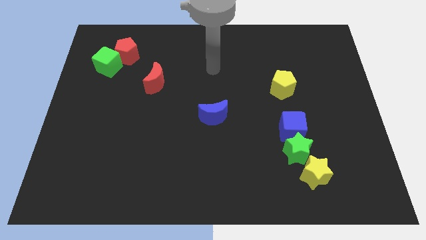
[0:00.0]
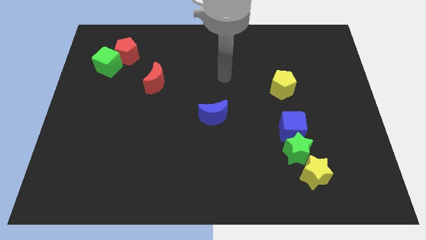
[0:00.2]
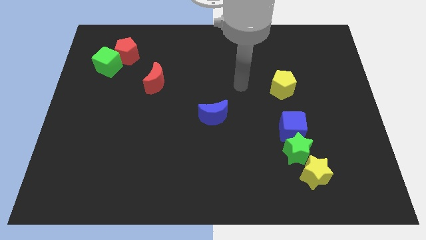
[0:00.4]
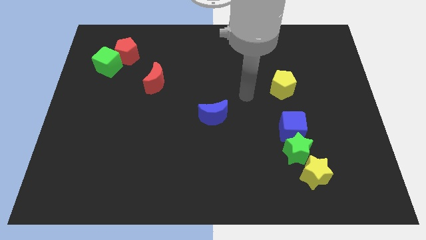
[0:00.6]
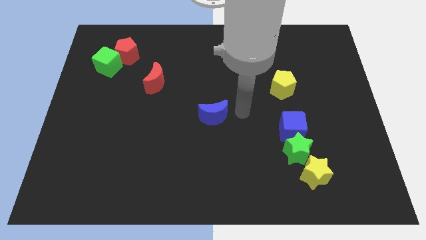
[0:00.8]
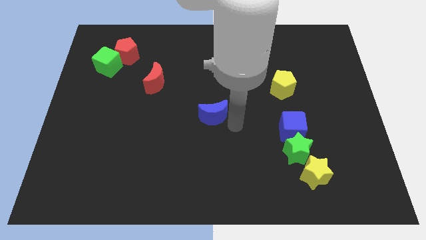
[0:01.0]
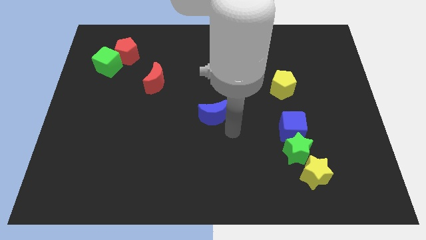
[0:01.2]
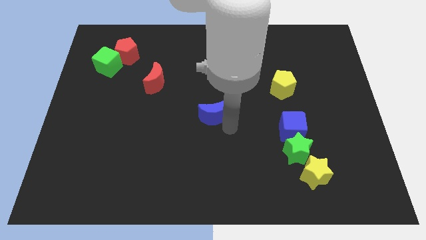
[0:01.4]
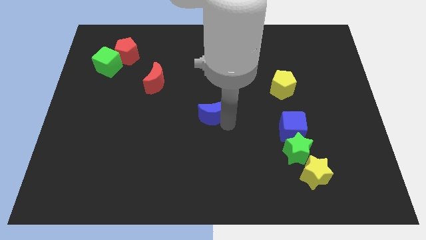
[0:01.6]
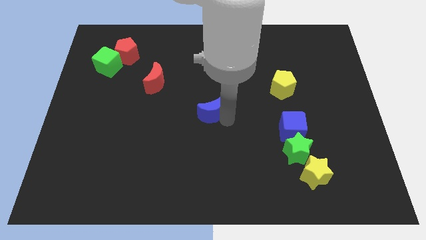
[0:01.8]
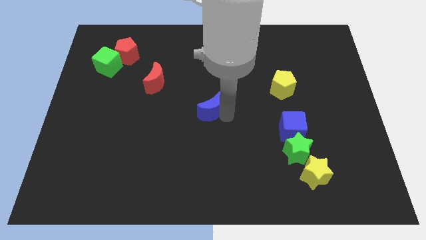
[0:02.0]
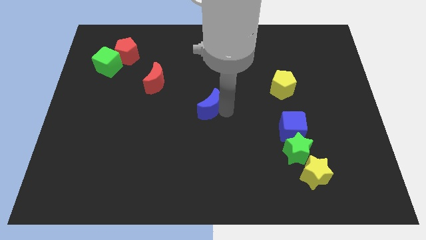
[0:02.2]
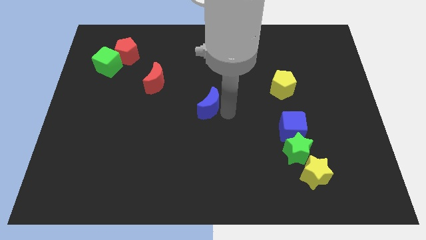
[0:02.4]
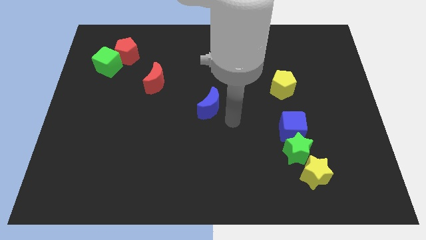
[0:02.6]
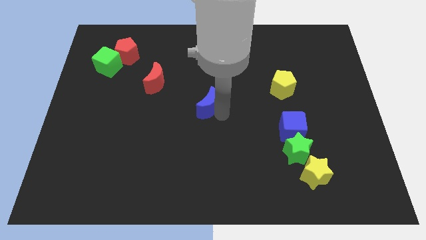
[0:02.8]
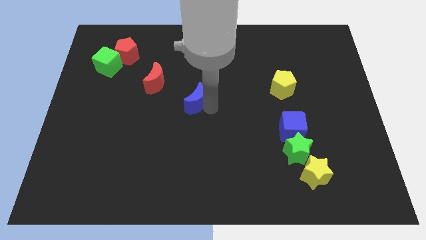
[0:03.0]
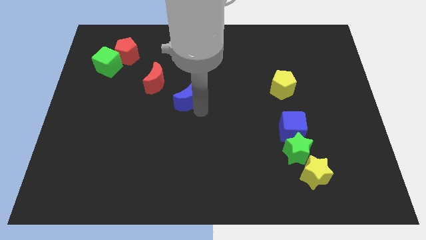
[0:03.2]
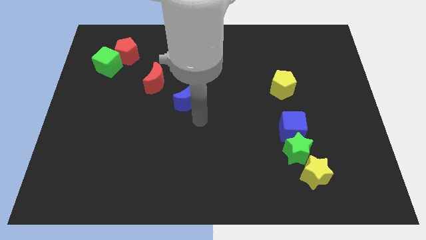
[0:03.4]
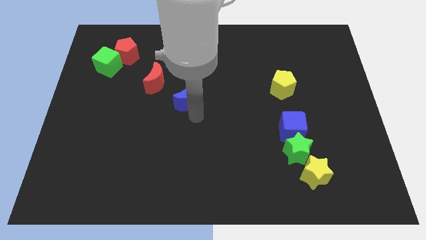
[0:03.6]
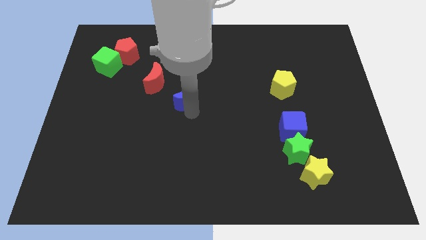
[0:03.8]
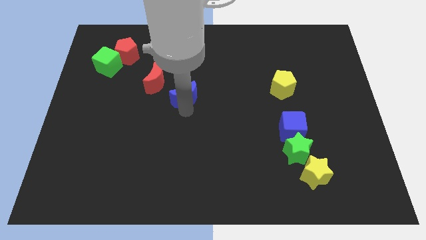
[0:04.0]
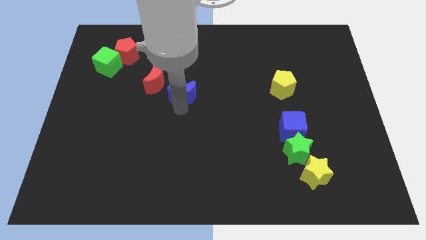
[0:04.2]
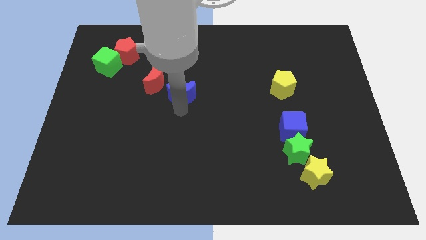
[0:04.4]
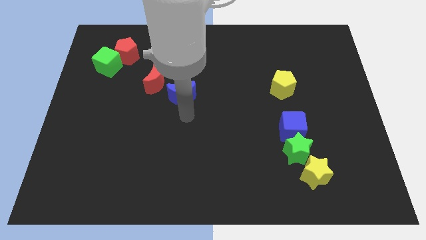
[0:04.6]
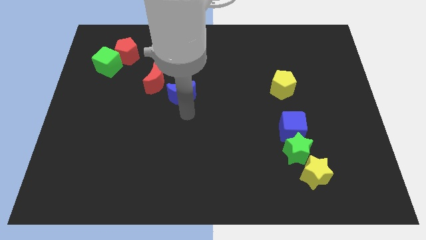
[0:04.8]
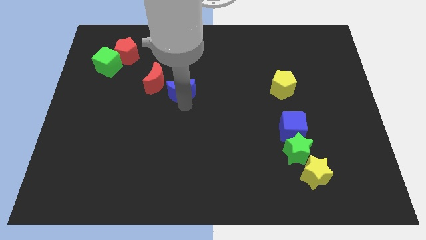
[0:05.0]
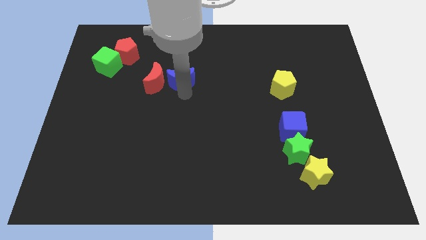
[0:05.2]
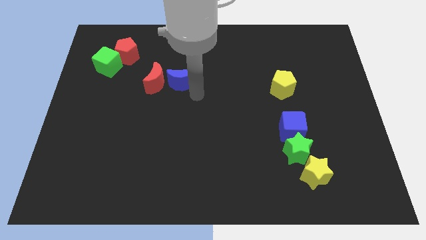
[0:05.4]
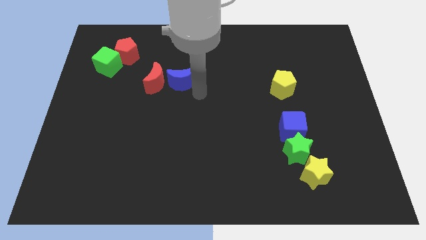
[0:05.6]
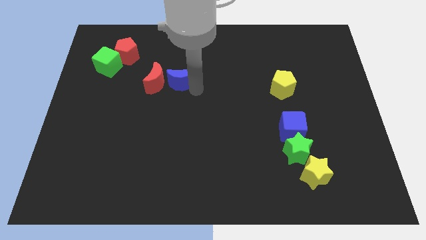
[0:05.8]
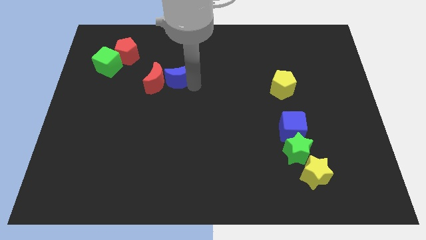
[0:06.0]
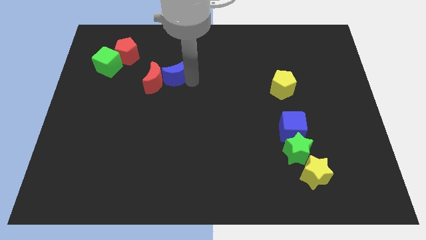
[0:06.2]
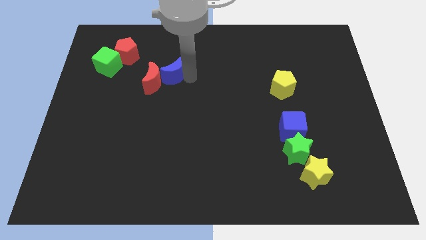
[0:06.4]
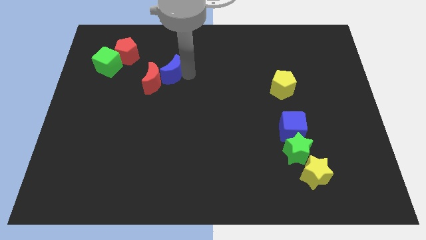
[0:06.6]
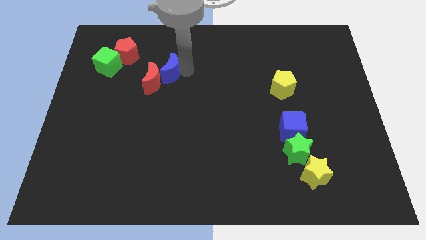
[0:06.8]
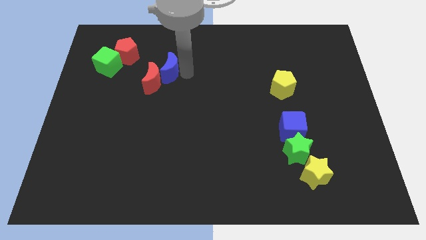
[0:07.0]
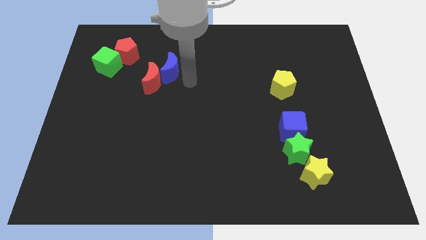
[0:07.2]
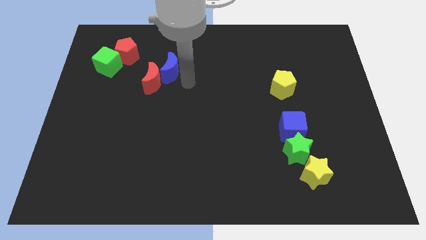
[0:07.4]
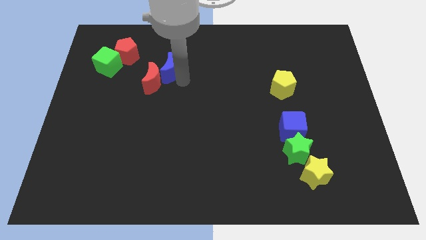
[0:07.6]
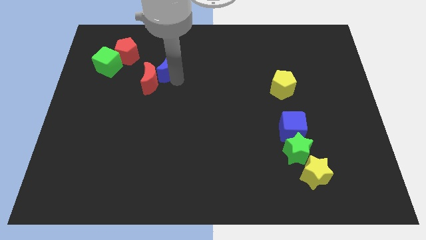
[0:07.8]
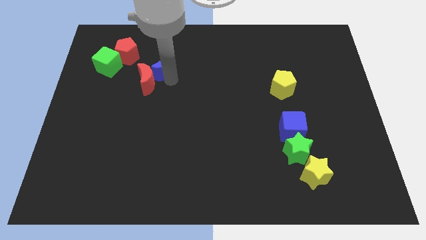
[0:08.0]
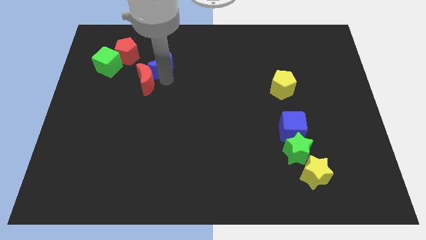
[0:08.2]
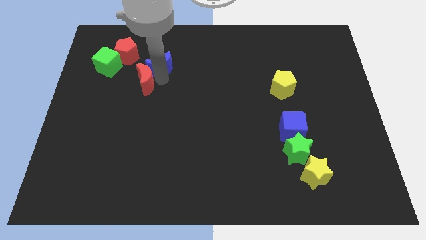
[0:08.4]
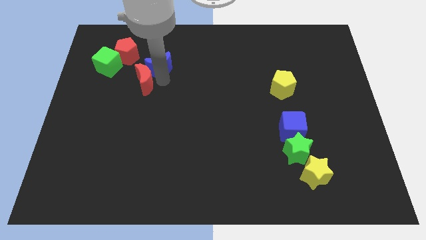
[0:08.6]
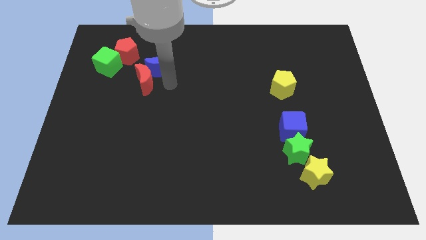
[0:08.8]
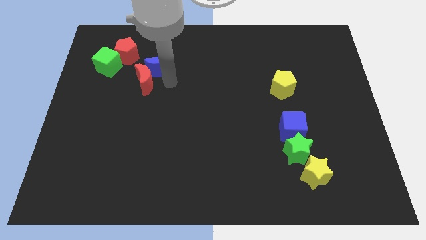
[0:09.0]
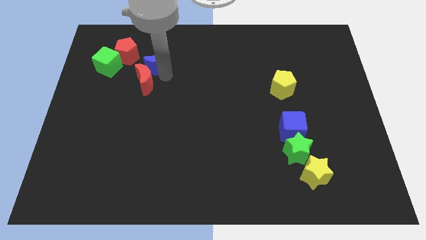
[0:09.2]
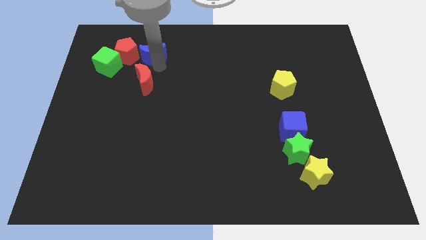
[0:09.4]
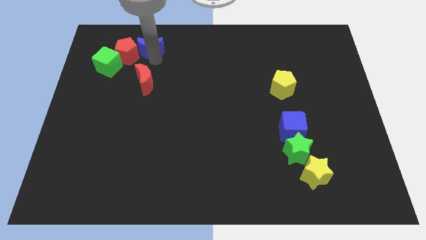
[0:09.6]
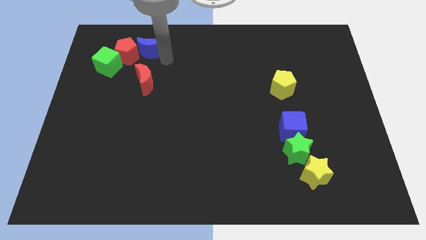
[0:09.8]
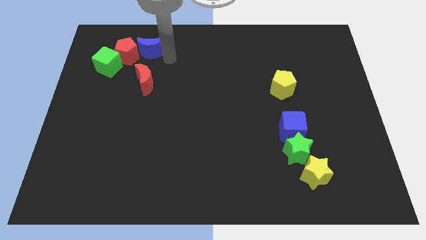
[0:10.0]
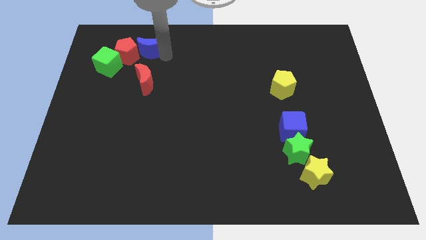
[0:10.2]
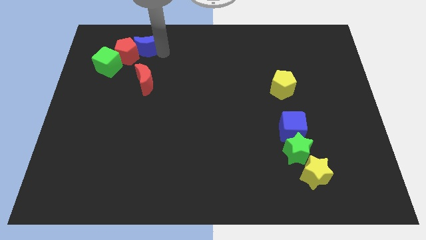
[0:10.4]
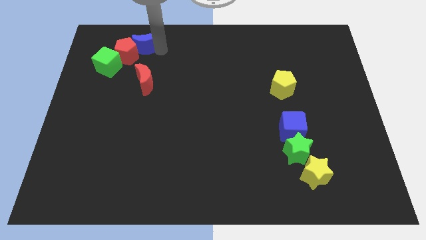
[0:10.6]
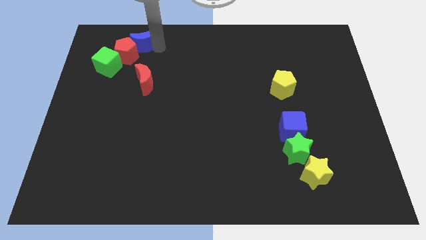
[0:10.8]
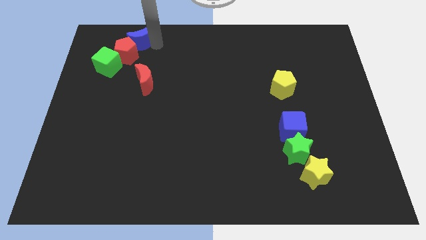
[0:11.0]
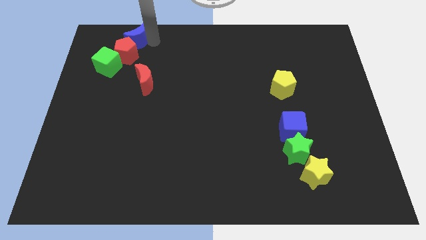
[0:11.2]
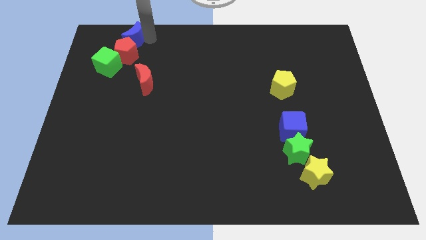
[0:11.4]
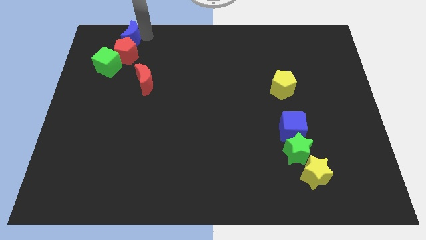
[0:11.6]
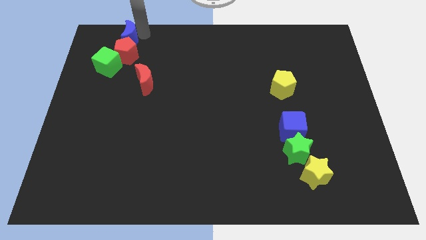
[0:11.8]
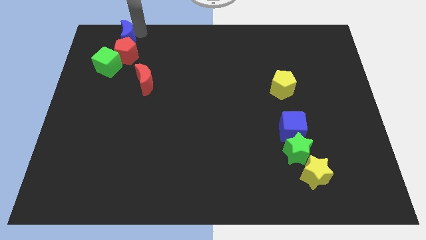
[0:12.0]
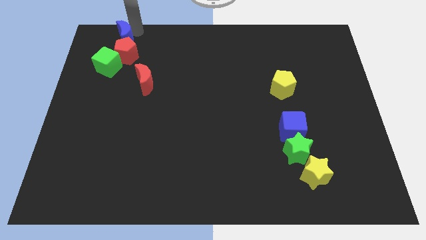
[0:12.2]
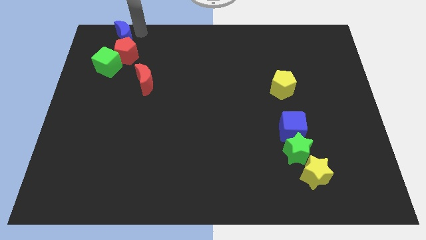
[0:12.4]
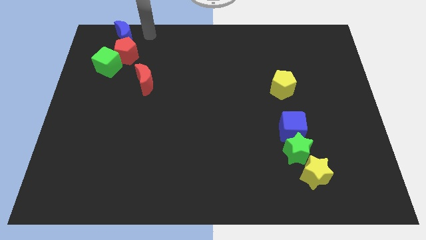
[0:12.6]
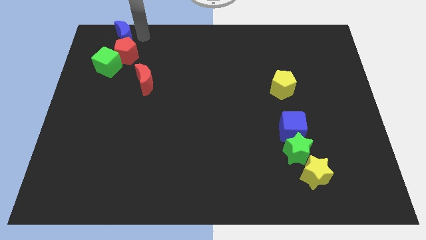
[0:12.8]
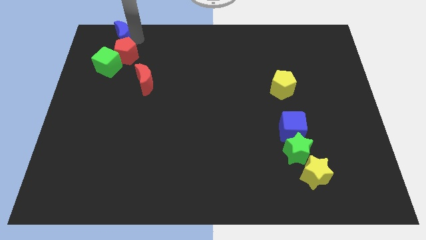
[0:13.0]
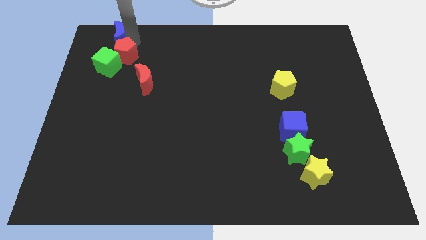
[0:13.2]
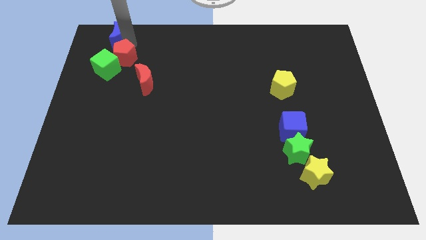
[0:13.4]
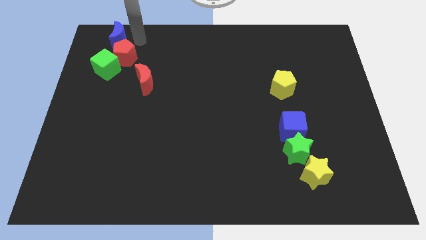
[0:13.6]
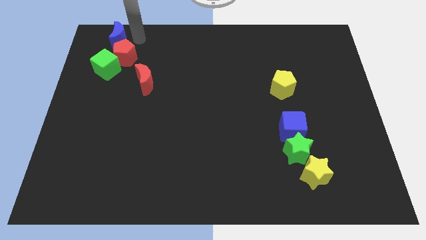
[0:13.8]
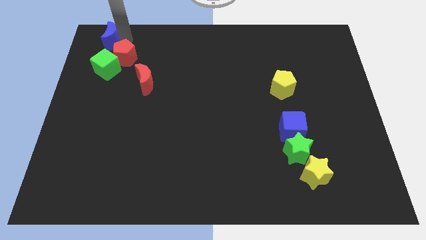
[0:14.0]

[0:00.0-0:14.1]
put the blue moon to the top left corner
